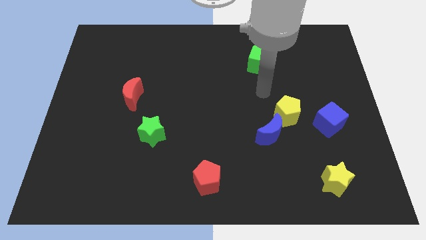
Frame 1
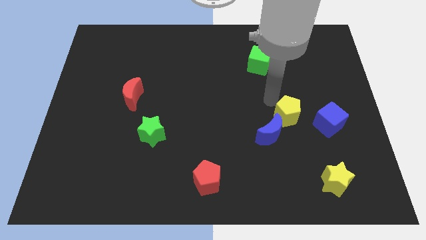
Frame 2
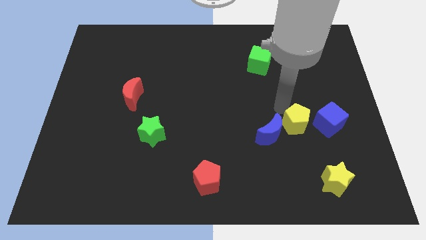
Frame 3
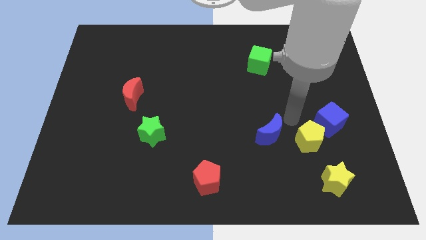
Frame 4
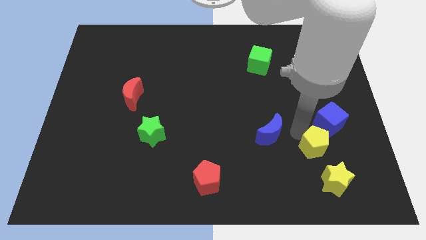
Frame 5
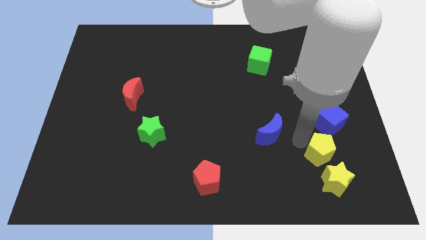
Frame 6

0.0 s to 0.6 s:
separate the blue moon from the yellow pentagon

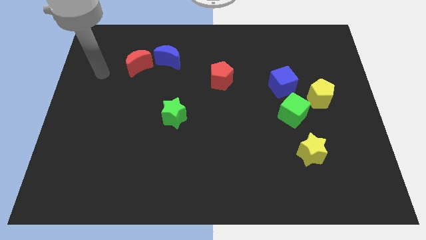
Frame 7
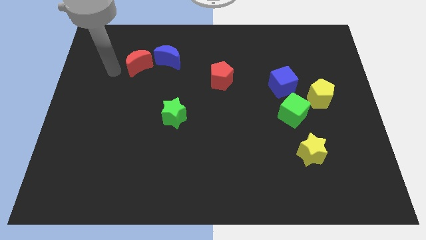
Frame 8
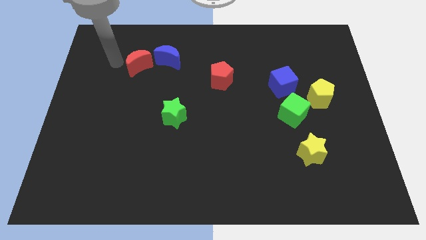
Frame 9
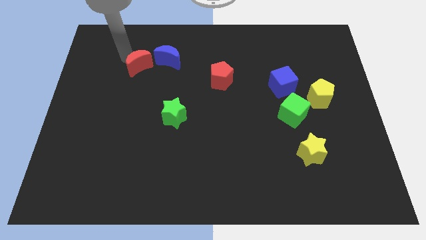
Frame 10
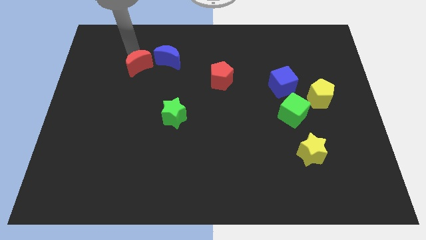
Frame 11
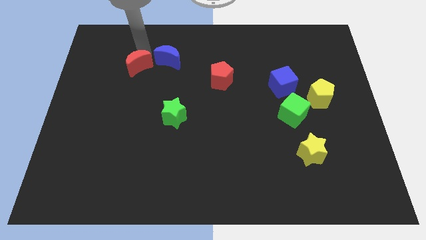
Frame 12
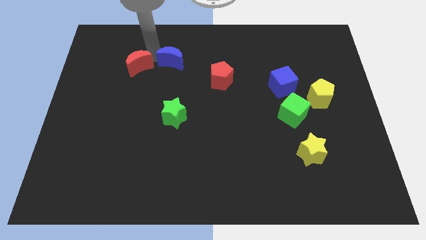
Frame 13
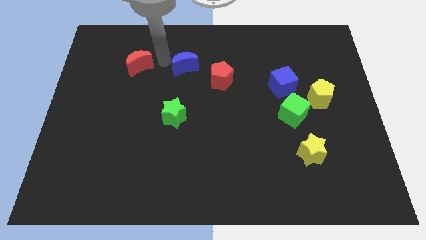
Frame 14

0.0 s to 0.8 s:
separate the red moon from the blue moon

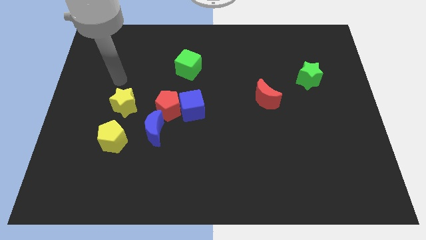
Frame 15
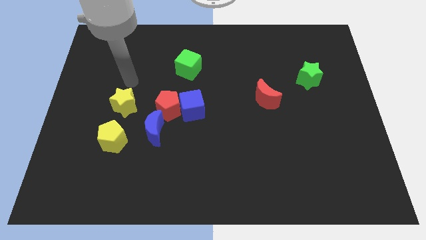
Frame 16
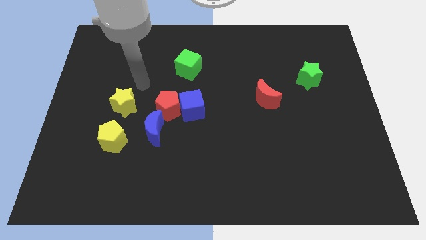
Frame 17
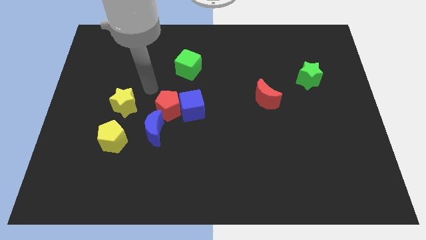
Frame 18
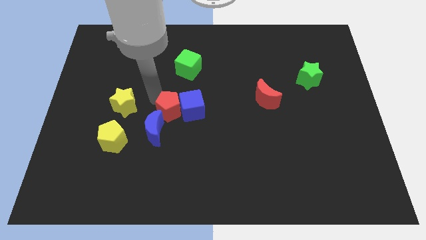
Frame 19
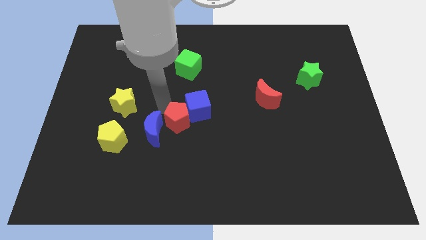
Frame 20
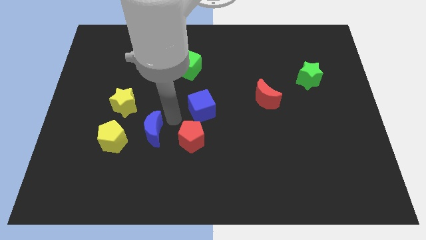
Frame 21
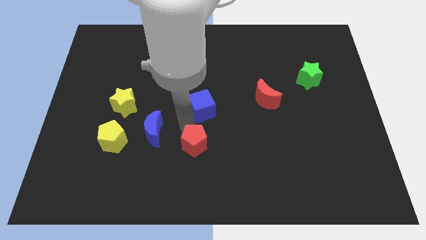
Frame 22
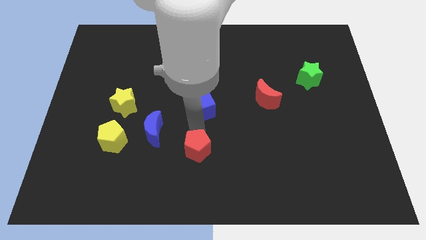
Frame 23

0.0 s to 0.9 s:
separate the blue cube from the red pentagon

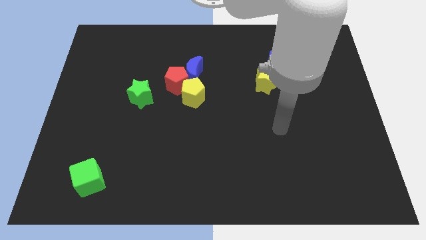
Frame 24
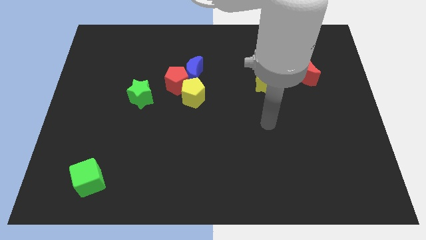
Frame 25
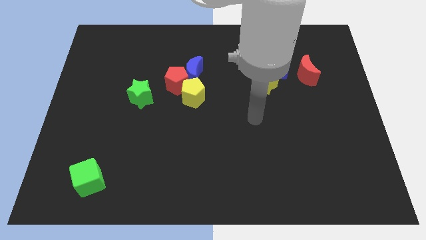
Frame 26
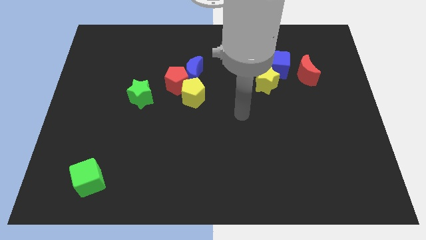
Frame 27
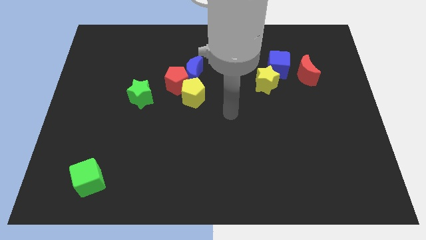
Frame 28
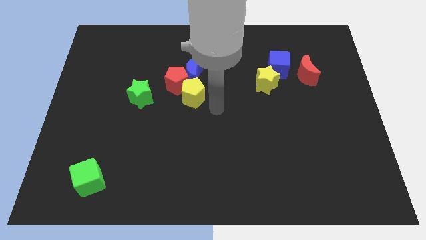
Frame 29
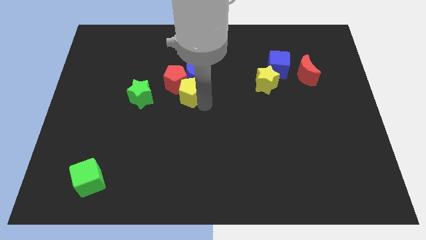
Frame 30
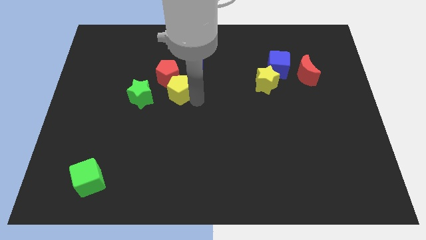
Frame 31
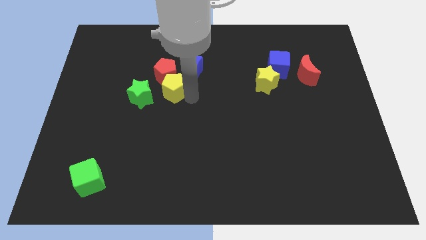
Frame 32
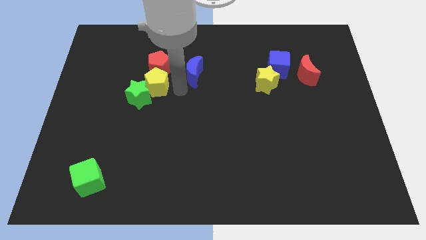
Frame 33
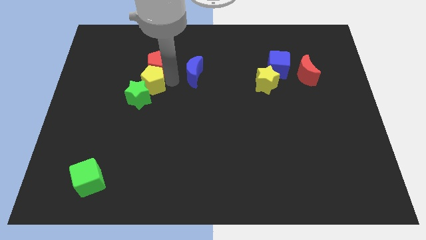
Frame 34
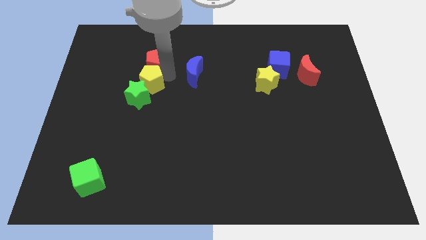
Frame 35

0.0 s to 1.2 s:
pull the blue moon apart from the red pentagon and yellow pentagon

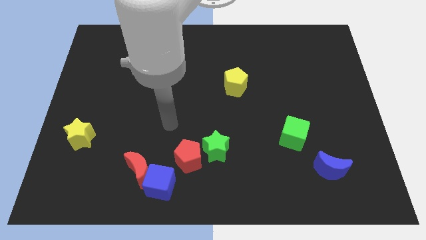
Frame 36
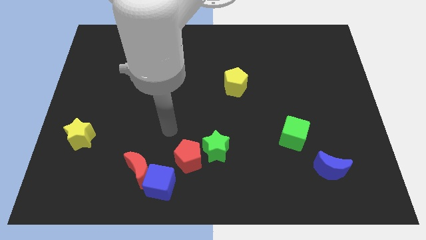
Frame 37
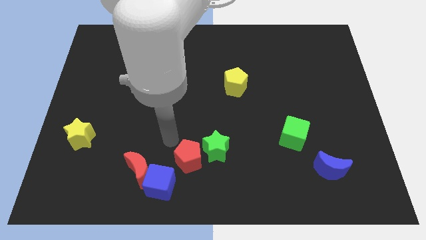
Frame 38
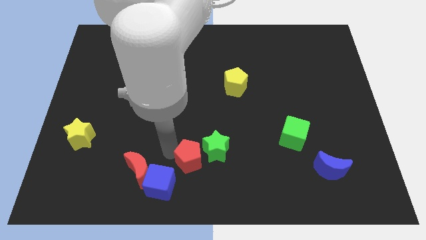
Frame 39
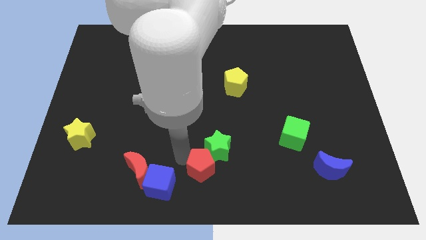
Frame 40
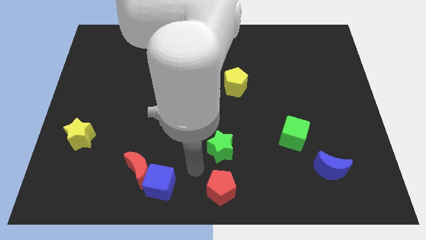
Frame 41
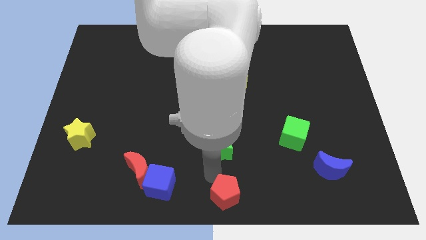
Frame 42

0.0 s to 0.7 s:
separate the green star from the red pentagon

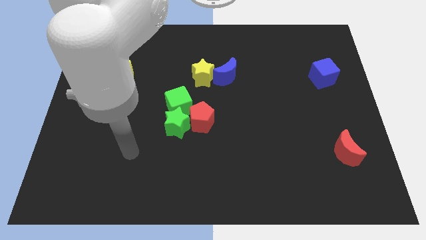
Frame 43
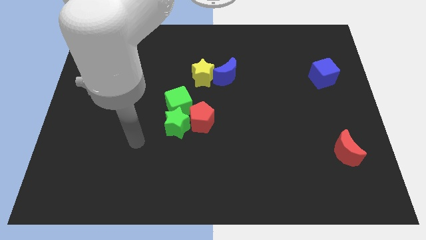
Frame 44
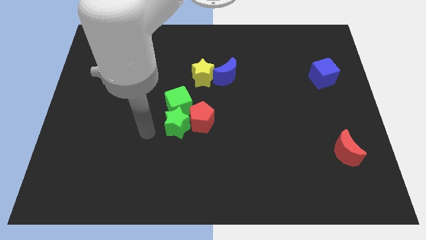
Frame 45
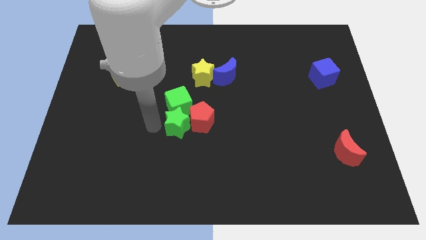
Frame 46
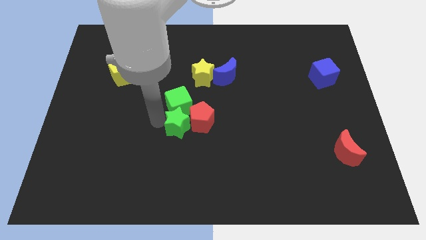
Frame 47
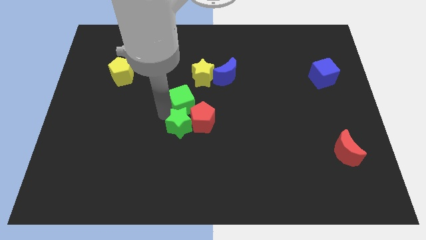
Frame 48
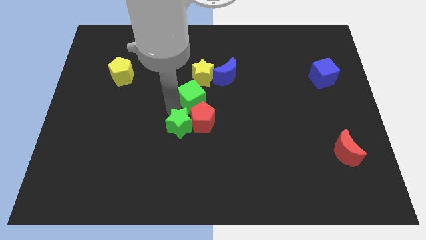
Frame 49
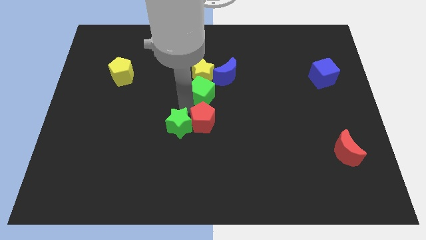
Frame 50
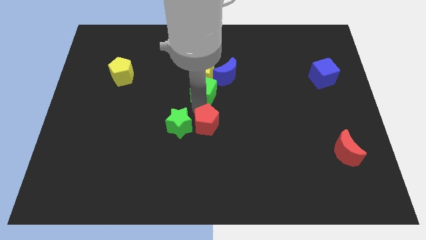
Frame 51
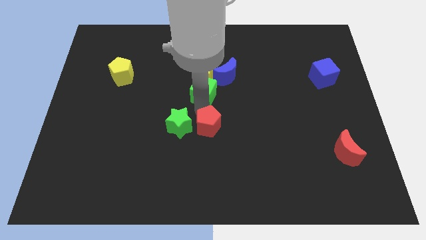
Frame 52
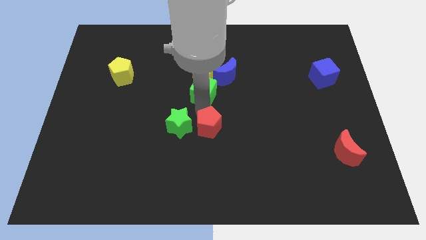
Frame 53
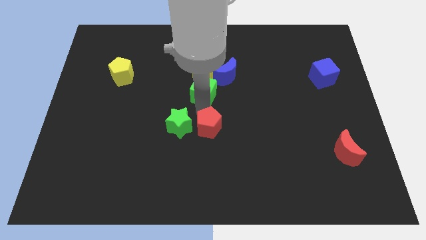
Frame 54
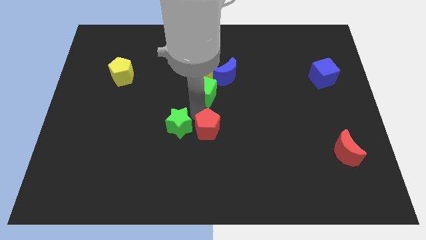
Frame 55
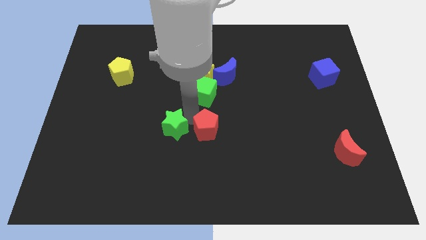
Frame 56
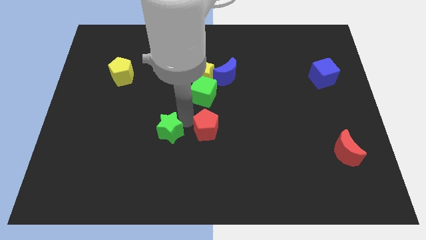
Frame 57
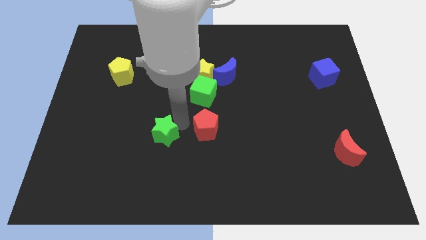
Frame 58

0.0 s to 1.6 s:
separate the green star from the green cube and red pentagon

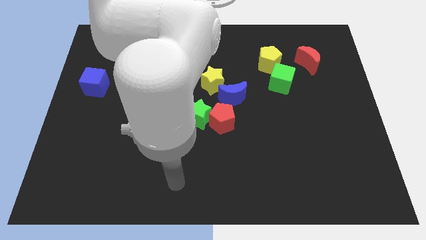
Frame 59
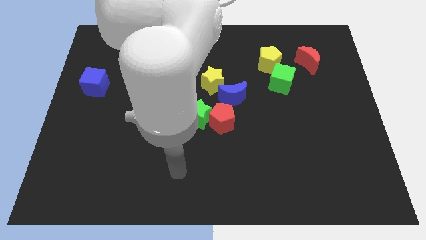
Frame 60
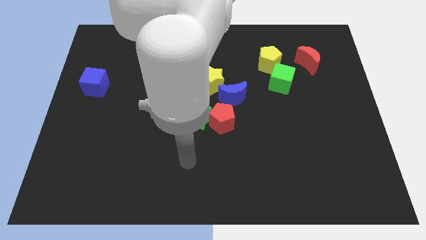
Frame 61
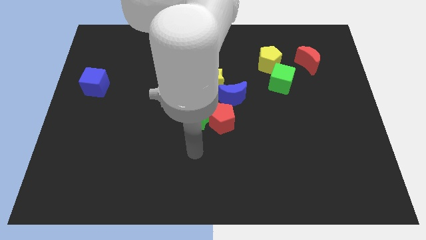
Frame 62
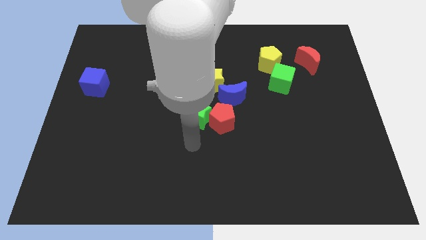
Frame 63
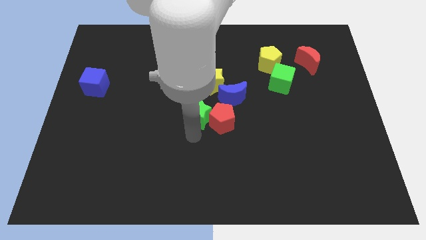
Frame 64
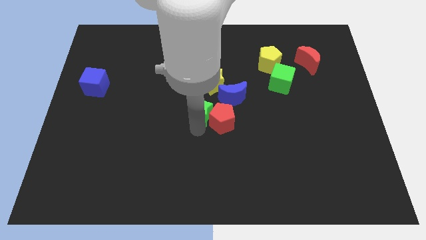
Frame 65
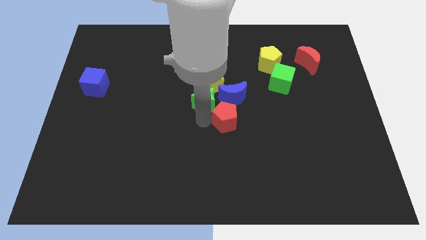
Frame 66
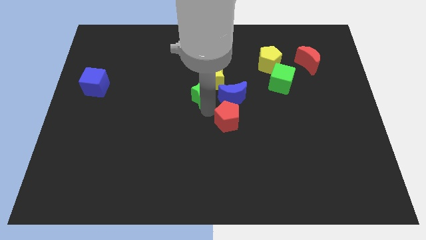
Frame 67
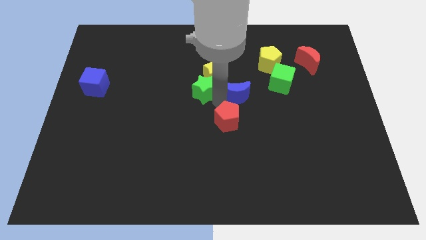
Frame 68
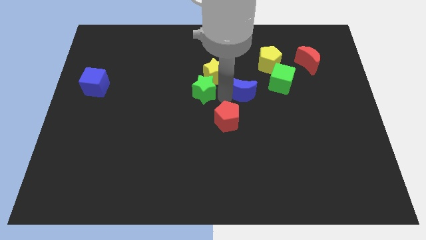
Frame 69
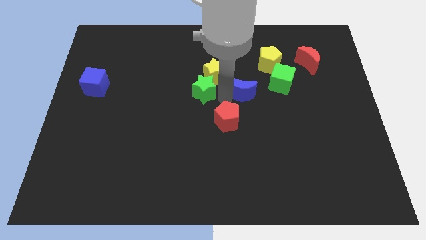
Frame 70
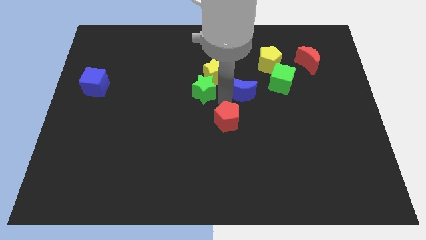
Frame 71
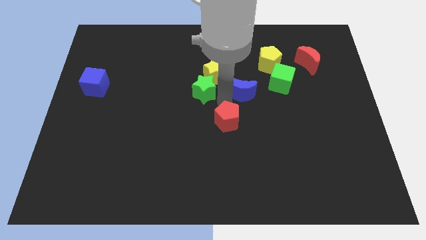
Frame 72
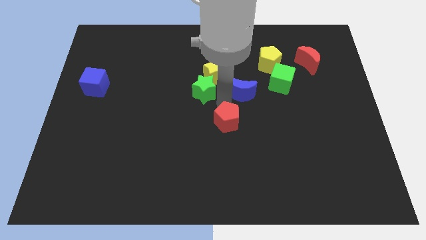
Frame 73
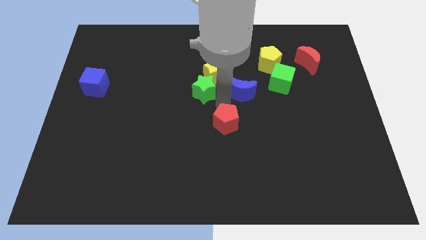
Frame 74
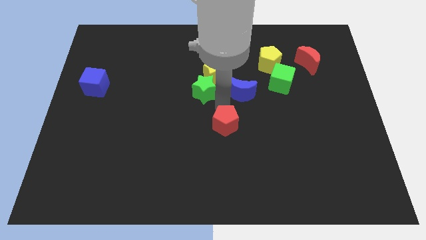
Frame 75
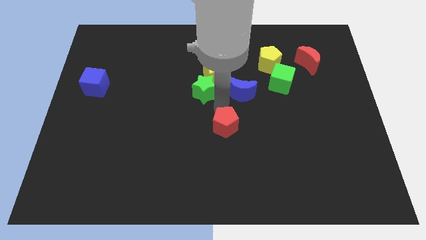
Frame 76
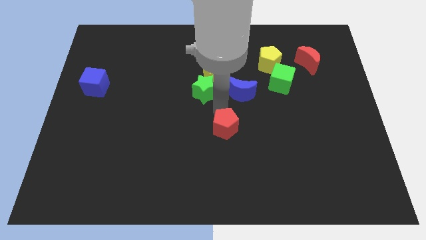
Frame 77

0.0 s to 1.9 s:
move the red pentagon away from the green star and blue moon

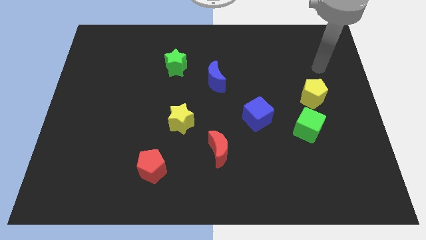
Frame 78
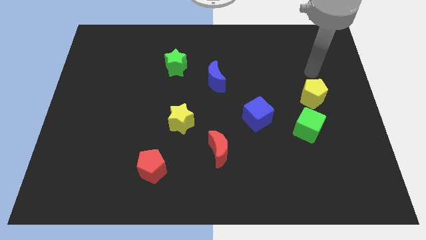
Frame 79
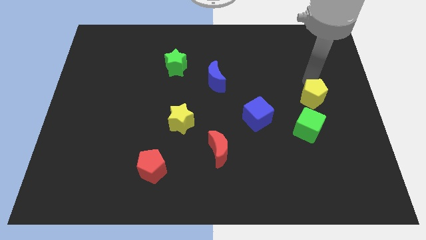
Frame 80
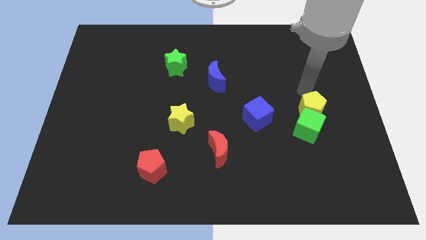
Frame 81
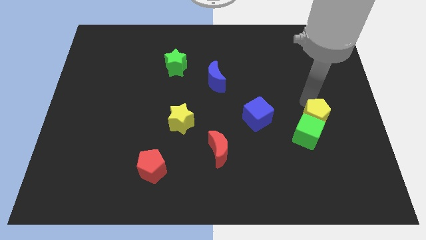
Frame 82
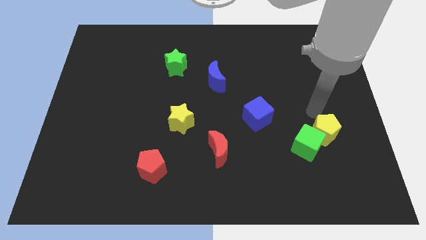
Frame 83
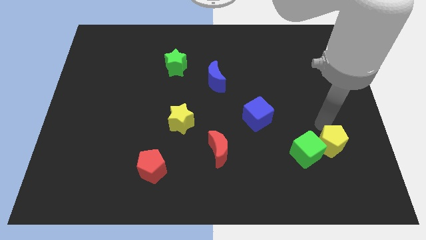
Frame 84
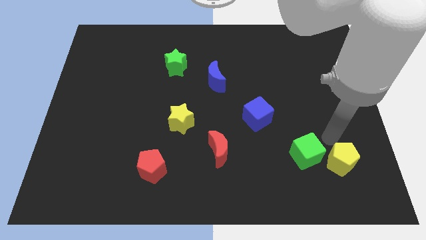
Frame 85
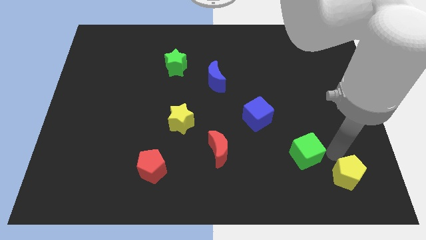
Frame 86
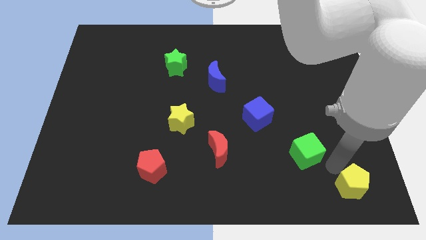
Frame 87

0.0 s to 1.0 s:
move the green cube away from the yellow pentagon

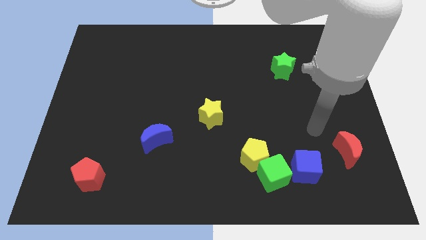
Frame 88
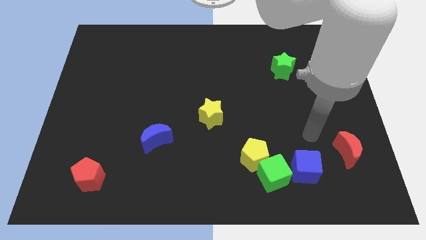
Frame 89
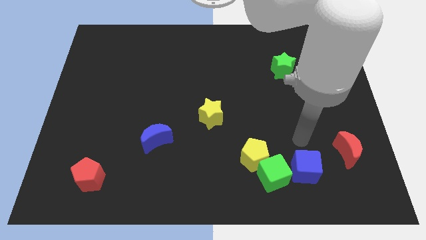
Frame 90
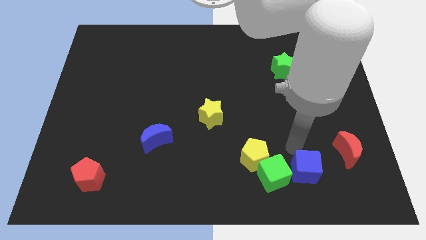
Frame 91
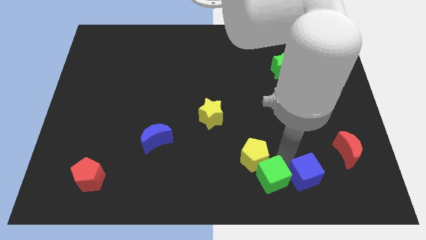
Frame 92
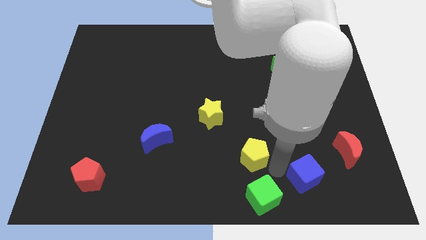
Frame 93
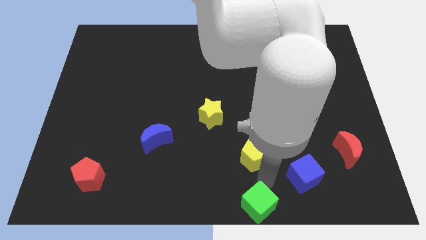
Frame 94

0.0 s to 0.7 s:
move the yellow pentagon away from the green cube
